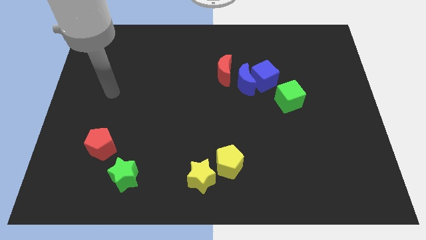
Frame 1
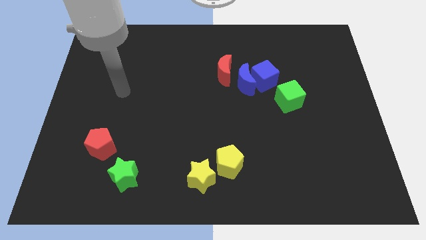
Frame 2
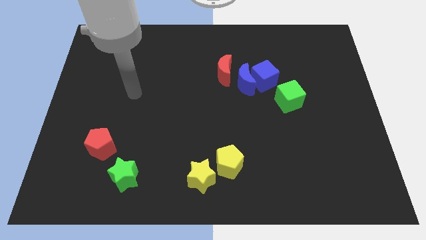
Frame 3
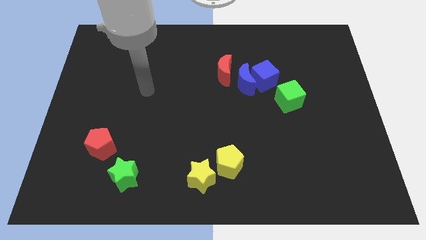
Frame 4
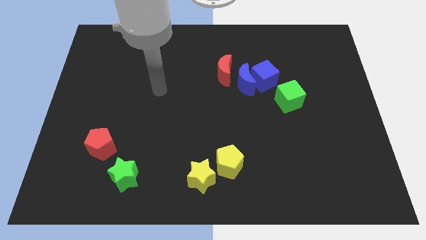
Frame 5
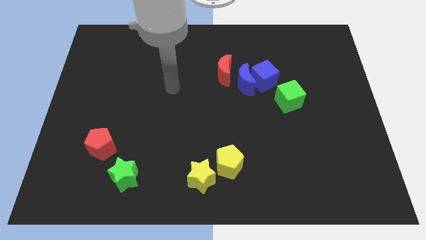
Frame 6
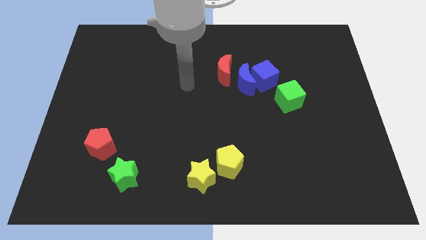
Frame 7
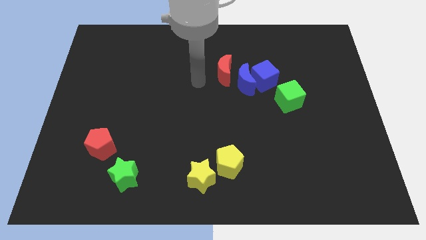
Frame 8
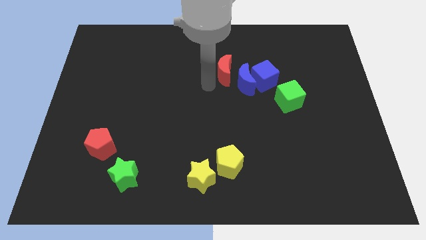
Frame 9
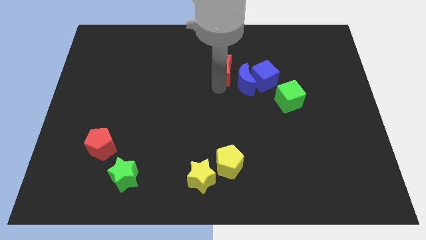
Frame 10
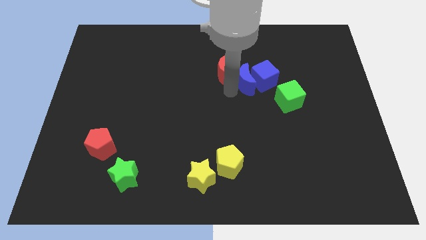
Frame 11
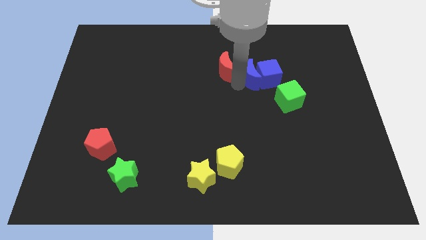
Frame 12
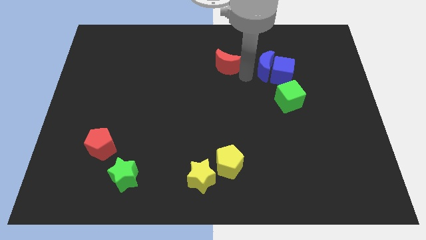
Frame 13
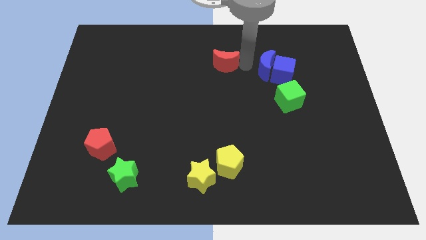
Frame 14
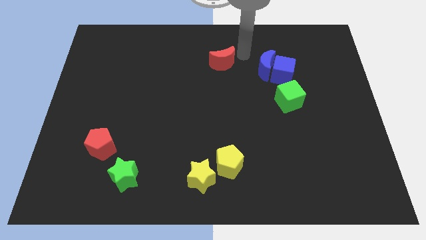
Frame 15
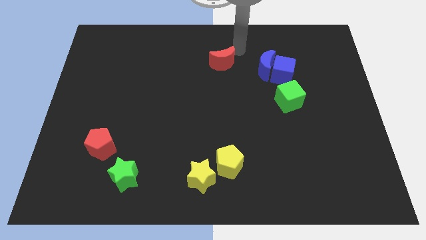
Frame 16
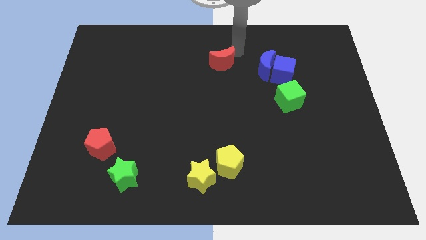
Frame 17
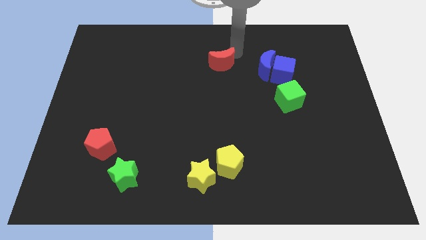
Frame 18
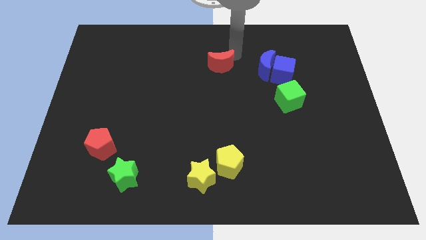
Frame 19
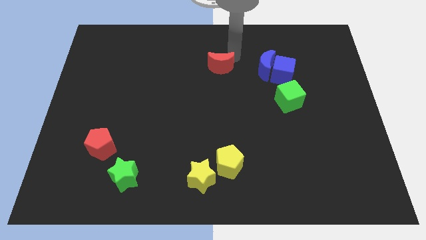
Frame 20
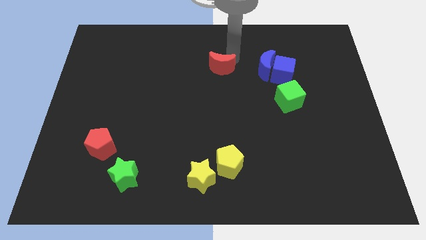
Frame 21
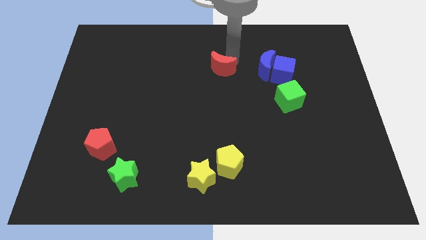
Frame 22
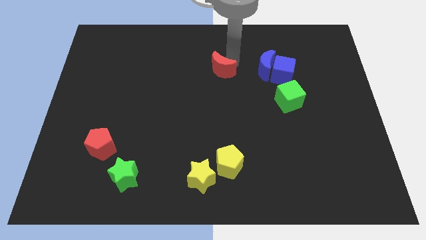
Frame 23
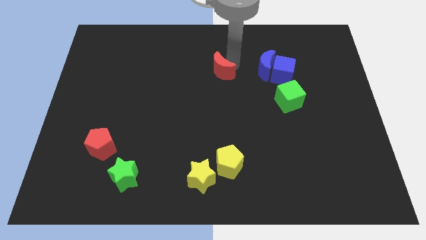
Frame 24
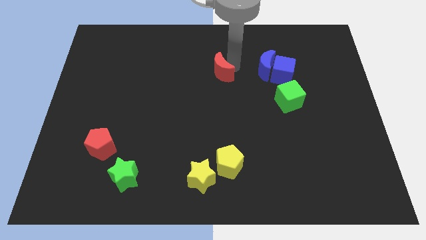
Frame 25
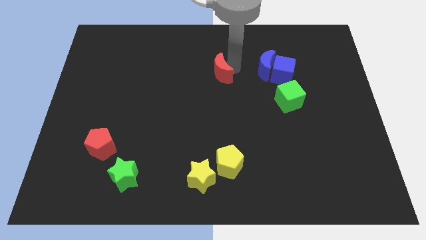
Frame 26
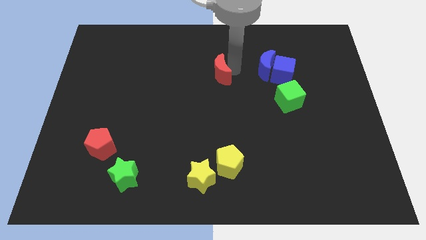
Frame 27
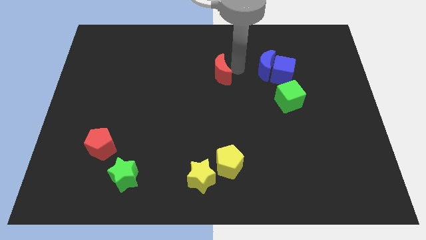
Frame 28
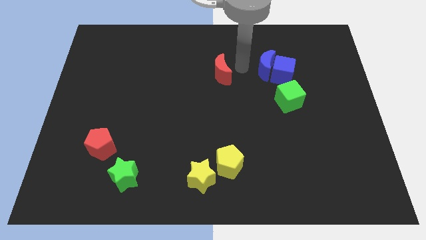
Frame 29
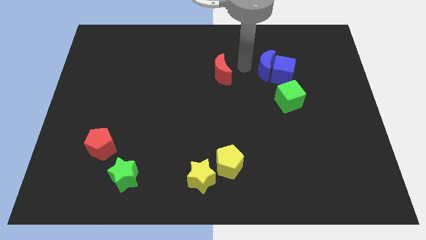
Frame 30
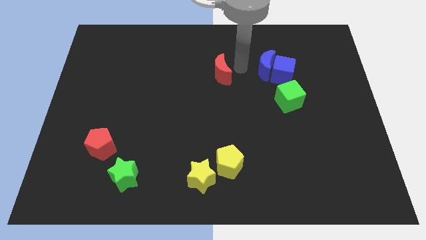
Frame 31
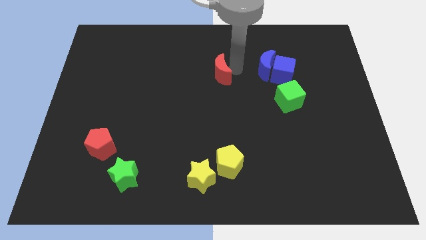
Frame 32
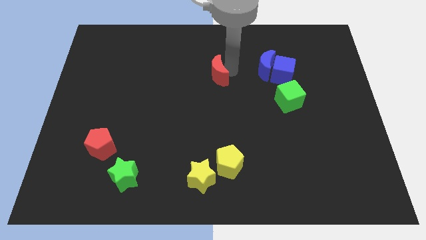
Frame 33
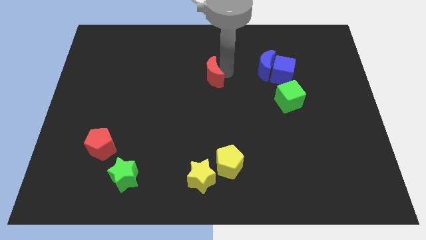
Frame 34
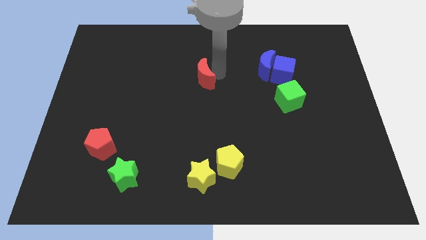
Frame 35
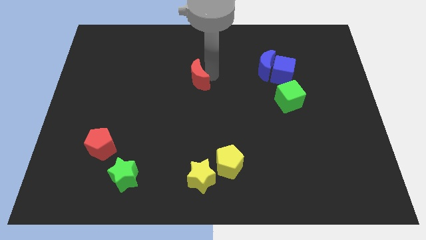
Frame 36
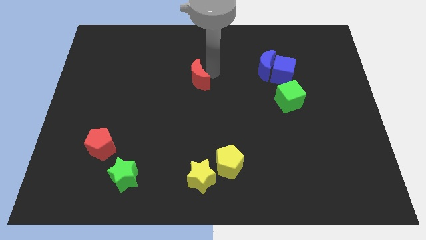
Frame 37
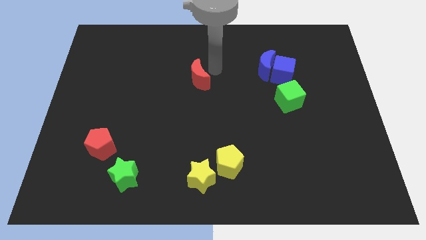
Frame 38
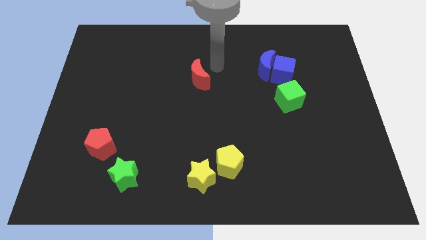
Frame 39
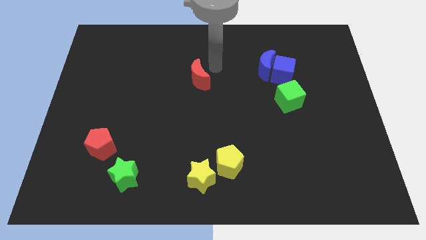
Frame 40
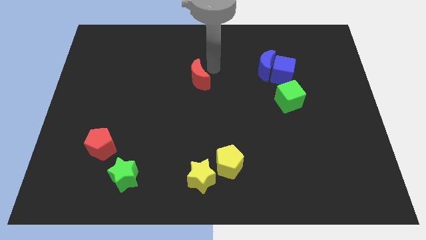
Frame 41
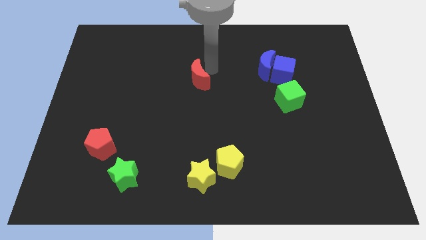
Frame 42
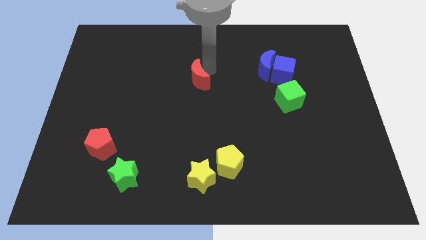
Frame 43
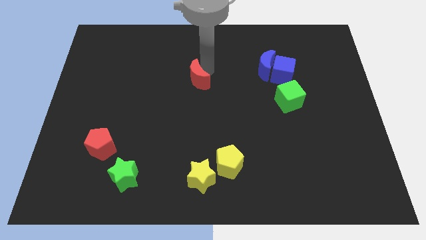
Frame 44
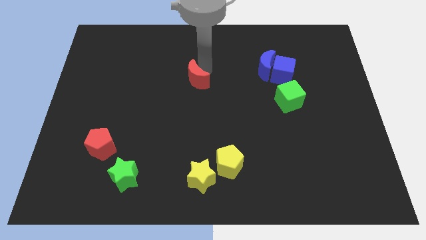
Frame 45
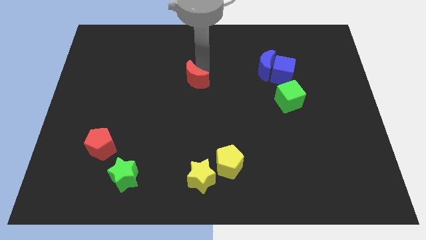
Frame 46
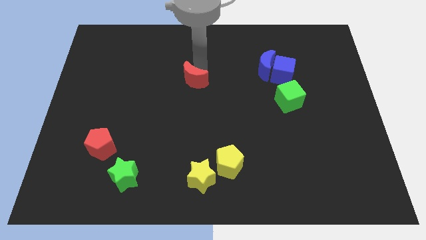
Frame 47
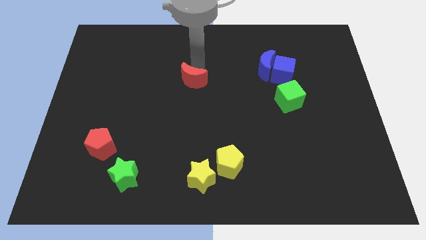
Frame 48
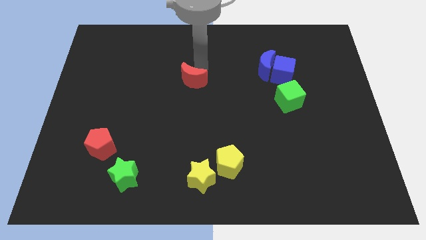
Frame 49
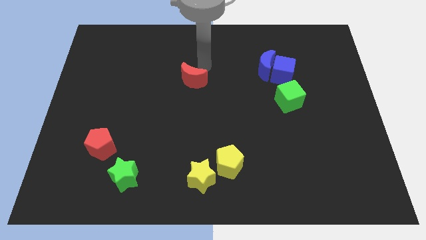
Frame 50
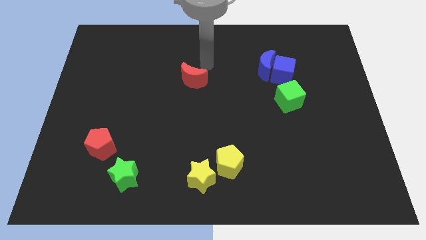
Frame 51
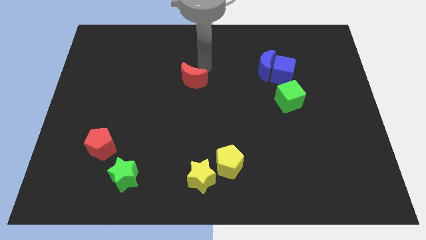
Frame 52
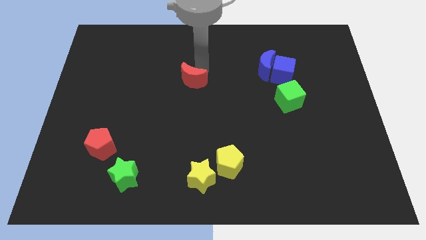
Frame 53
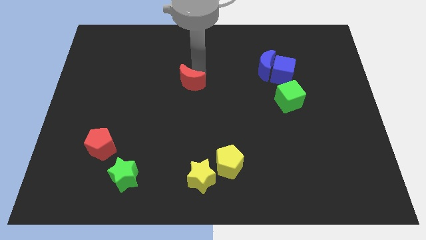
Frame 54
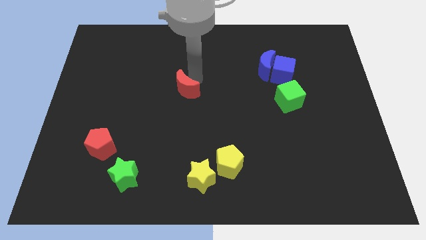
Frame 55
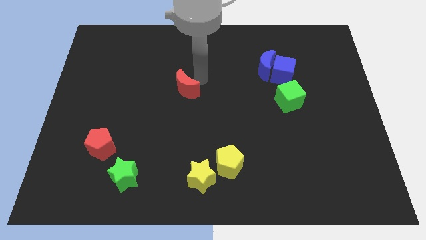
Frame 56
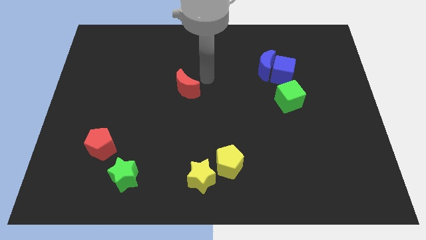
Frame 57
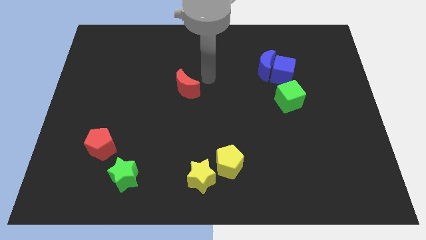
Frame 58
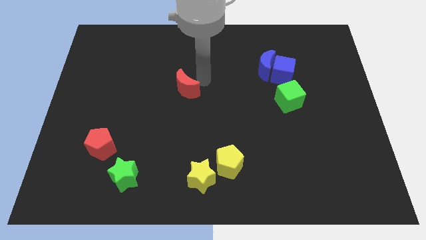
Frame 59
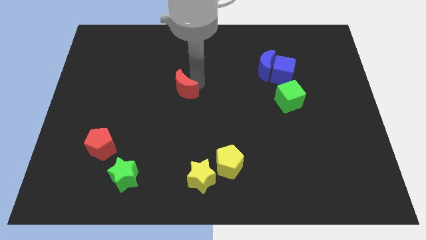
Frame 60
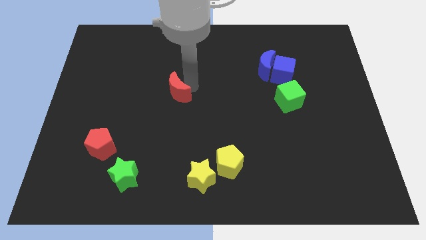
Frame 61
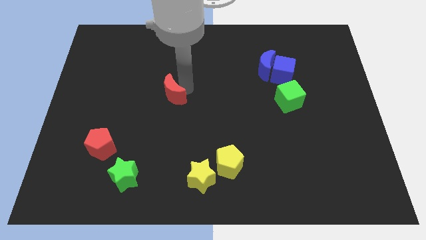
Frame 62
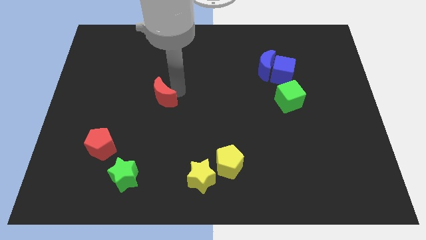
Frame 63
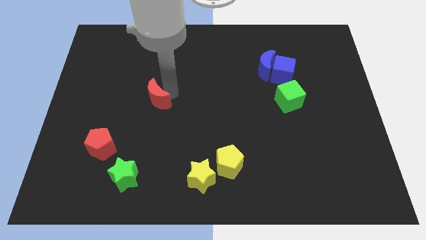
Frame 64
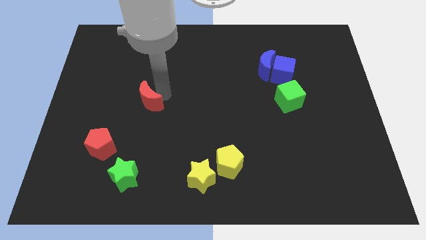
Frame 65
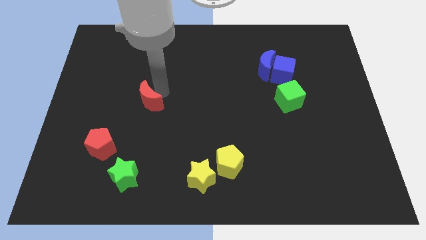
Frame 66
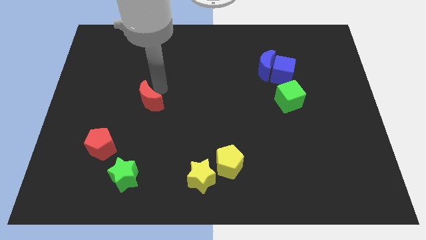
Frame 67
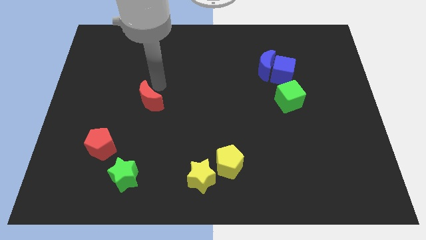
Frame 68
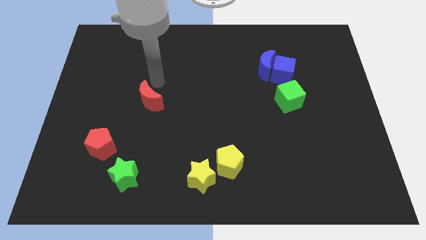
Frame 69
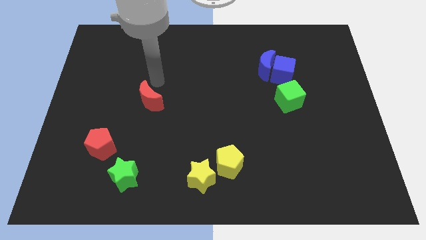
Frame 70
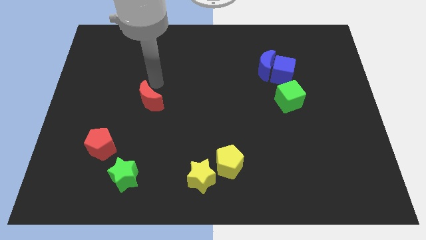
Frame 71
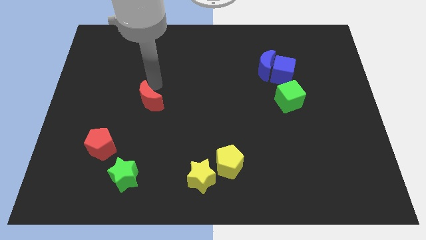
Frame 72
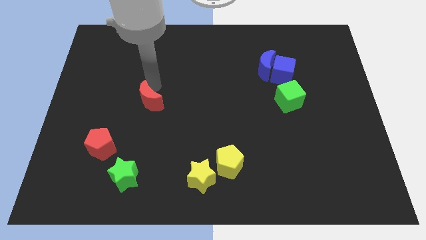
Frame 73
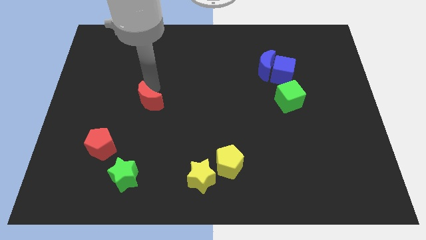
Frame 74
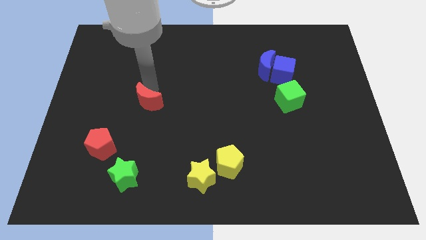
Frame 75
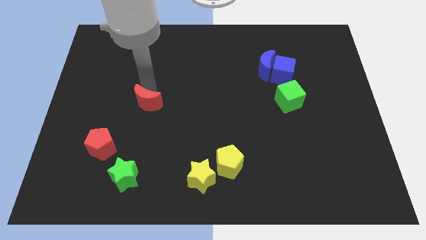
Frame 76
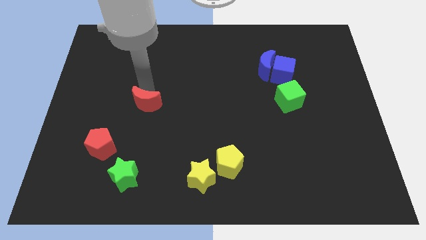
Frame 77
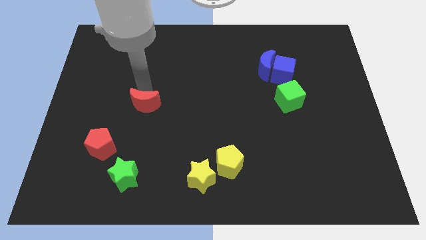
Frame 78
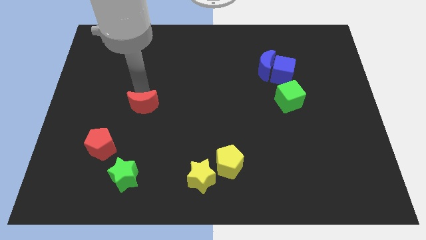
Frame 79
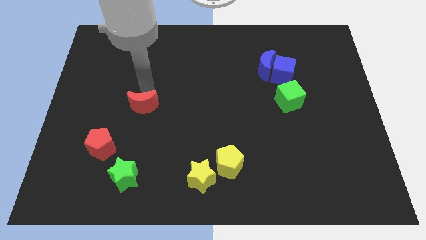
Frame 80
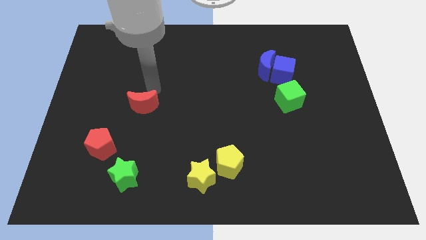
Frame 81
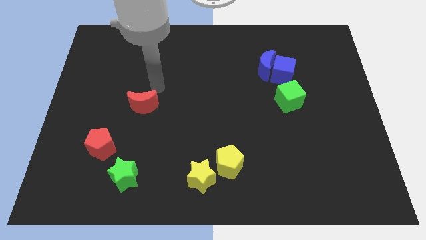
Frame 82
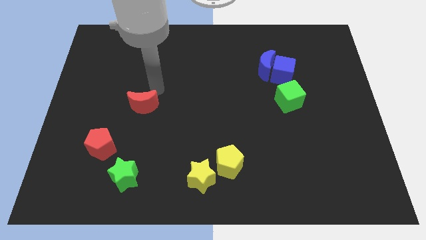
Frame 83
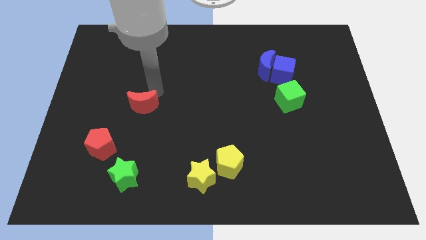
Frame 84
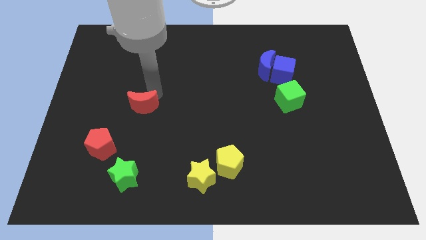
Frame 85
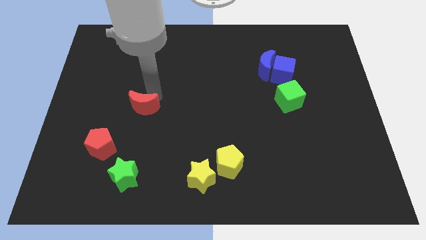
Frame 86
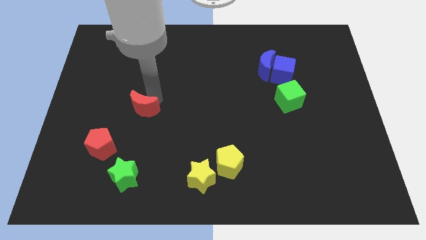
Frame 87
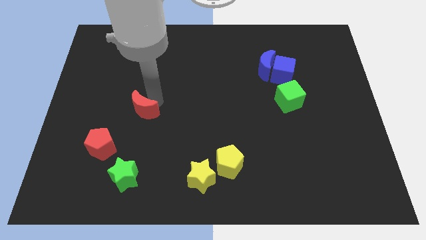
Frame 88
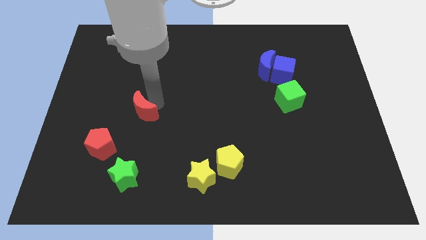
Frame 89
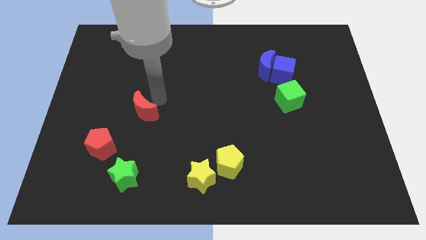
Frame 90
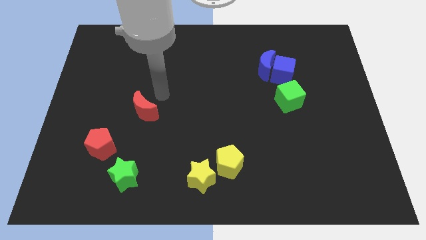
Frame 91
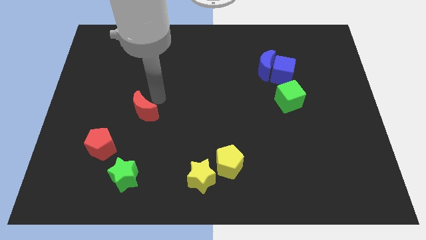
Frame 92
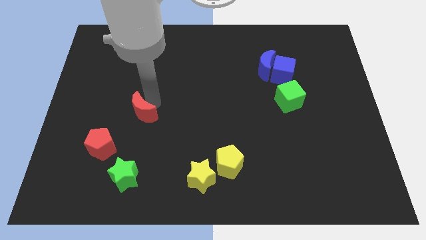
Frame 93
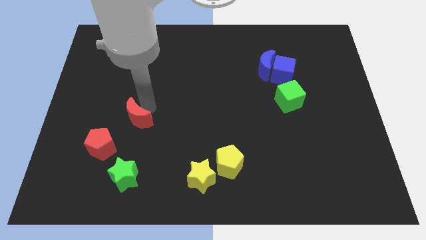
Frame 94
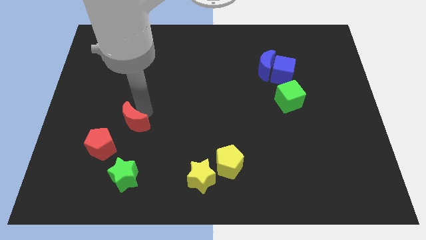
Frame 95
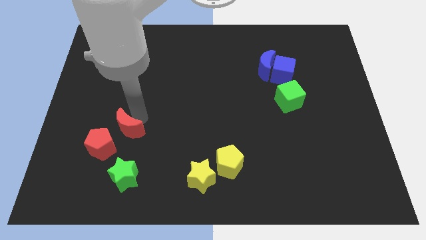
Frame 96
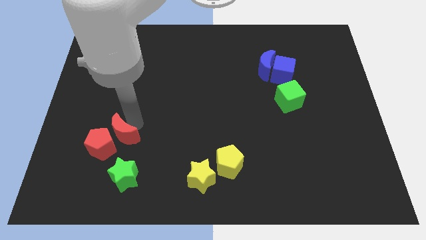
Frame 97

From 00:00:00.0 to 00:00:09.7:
put the red moon to the red pentagon
